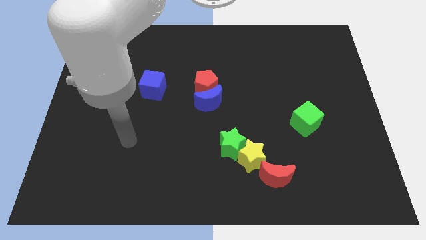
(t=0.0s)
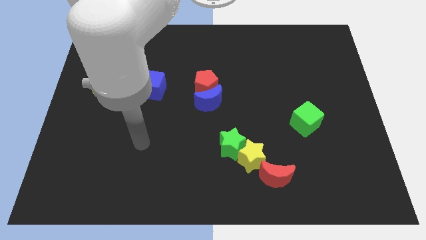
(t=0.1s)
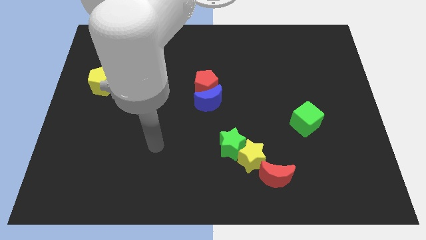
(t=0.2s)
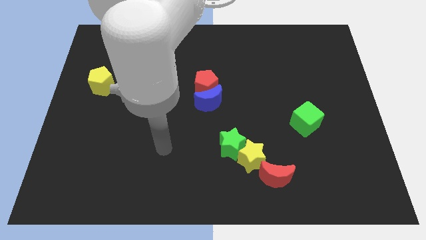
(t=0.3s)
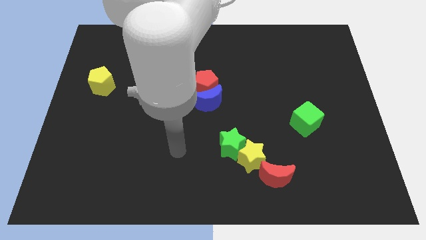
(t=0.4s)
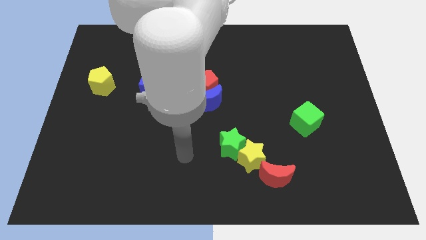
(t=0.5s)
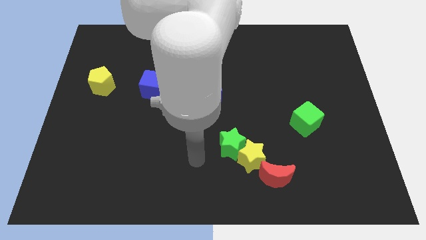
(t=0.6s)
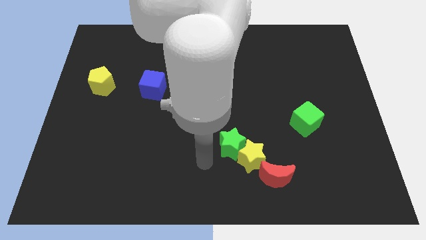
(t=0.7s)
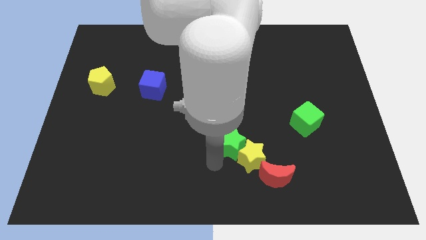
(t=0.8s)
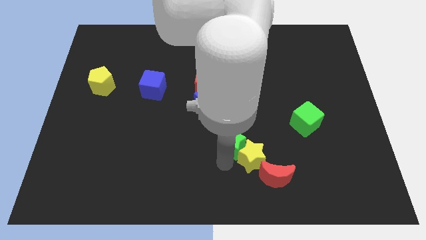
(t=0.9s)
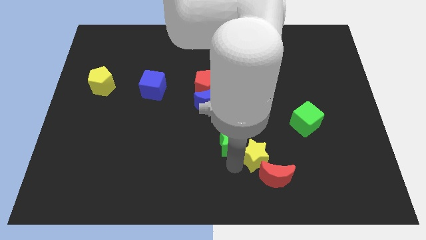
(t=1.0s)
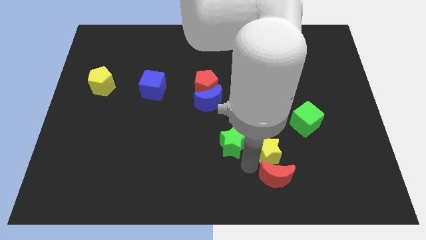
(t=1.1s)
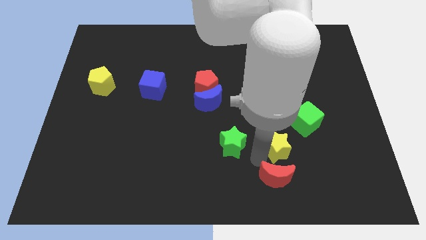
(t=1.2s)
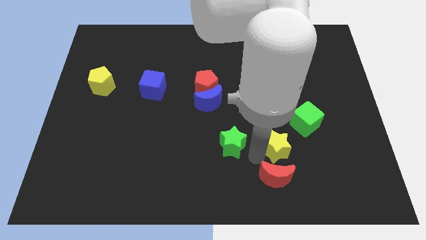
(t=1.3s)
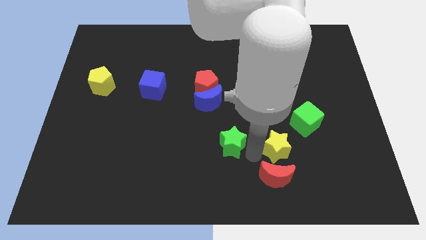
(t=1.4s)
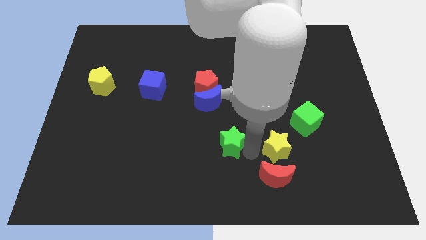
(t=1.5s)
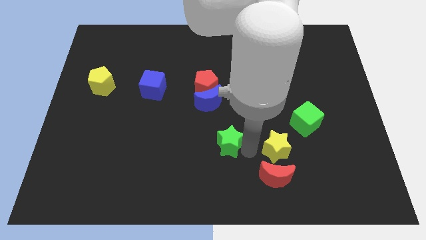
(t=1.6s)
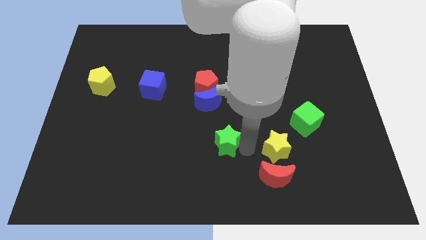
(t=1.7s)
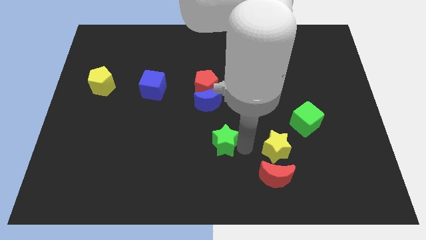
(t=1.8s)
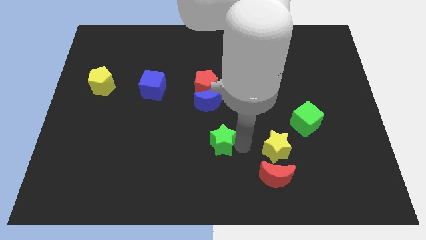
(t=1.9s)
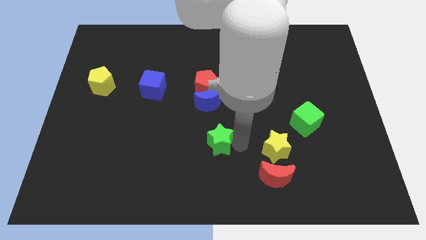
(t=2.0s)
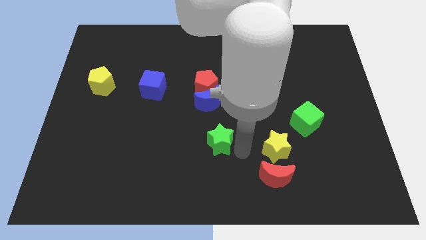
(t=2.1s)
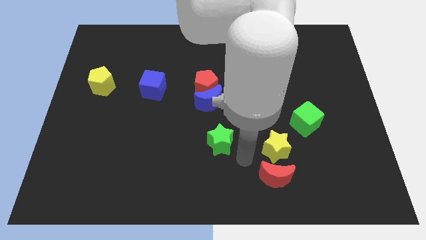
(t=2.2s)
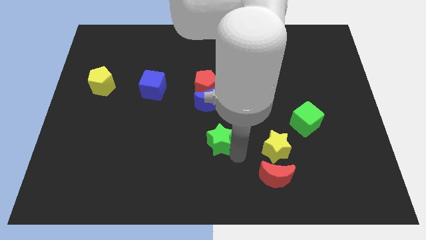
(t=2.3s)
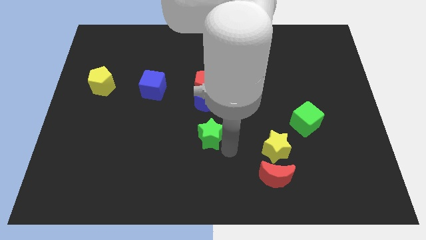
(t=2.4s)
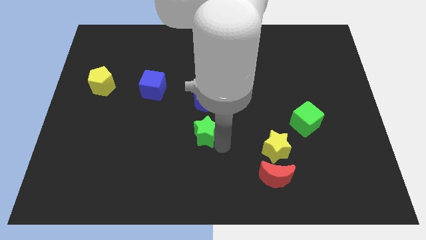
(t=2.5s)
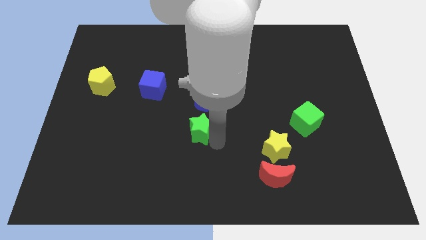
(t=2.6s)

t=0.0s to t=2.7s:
slightly slide the green star upwards and to the left diagonally

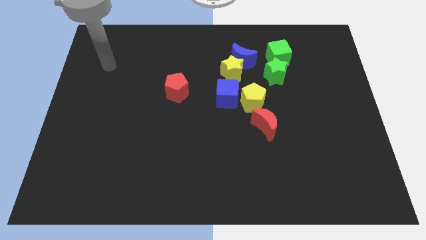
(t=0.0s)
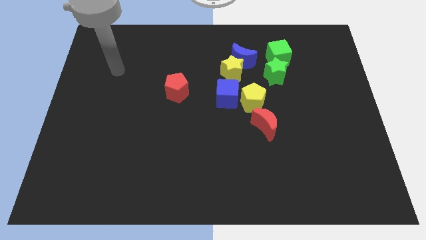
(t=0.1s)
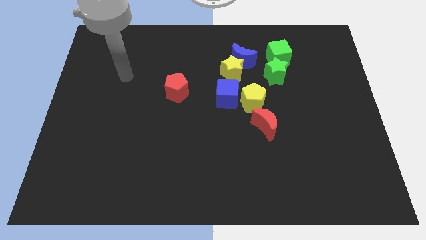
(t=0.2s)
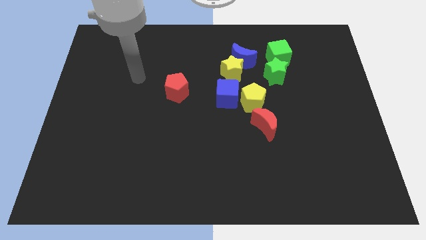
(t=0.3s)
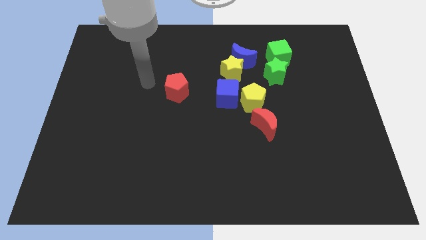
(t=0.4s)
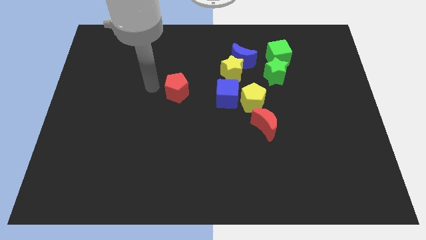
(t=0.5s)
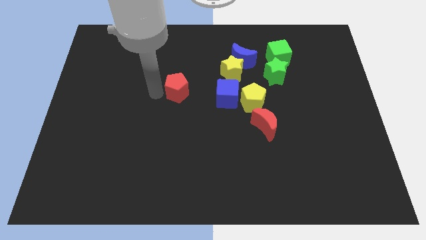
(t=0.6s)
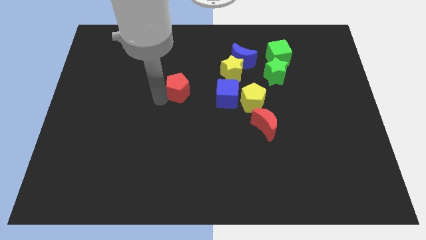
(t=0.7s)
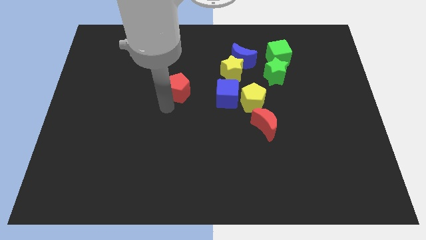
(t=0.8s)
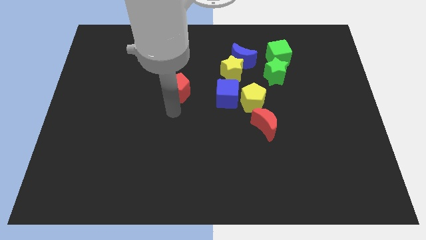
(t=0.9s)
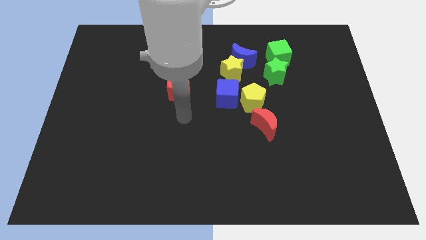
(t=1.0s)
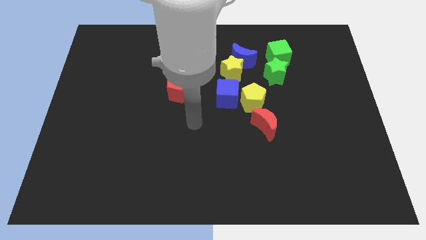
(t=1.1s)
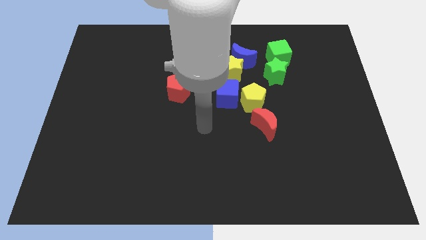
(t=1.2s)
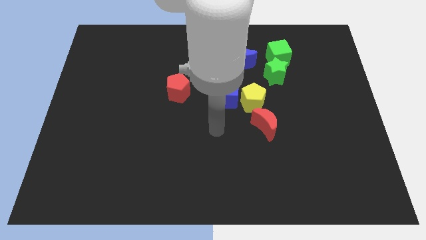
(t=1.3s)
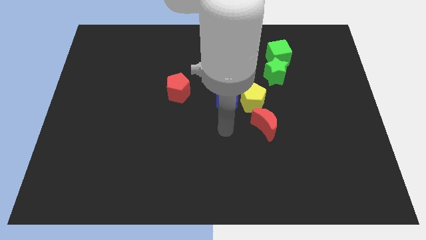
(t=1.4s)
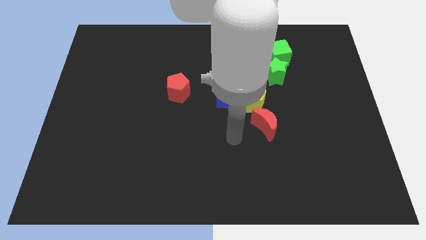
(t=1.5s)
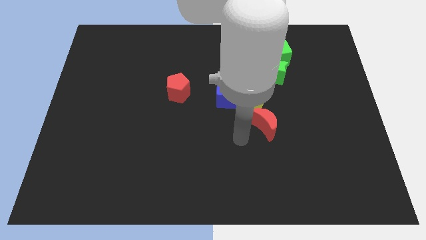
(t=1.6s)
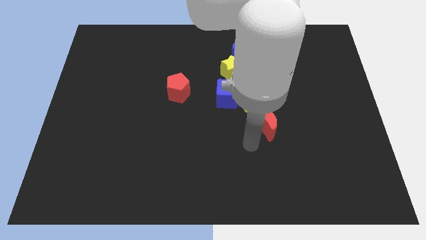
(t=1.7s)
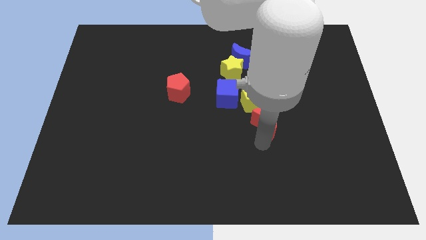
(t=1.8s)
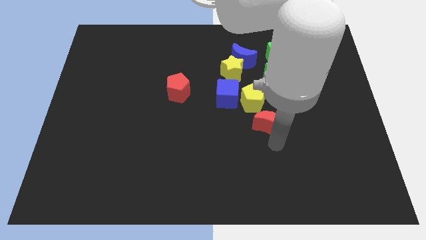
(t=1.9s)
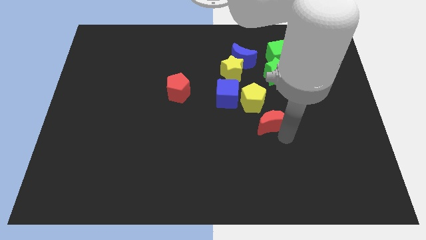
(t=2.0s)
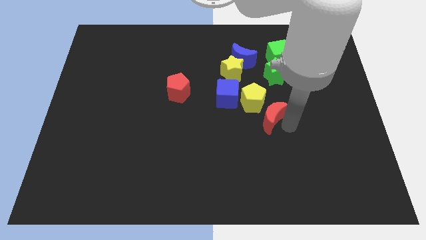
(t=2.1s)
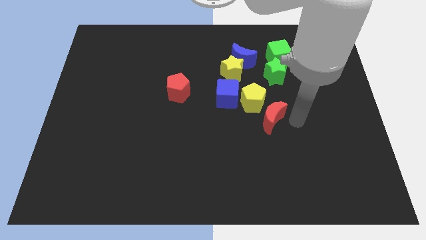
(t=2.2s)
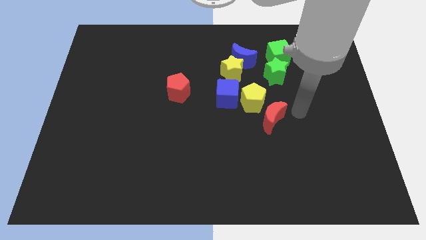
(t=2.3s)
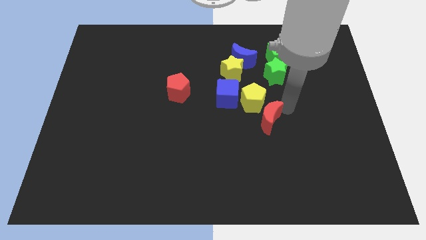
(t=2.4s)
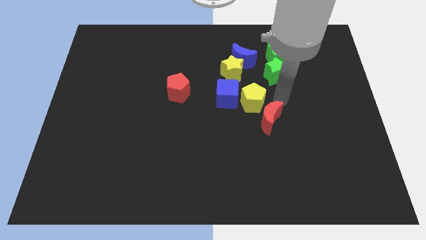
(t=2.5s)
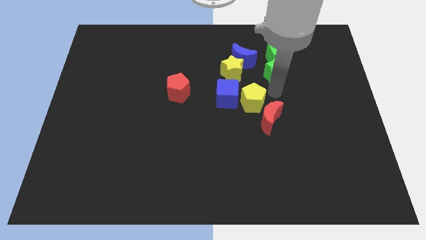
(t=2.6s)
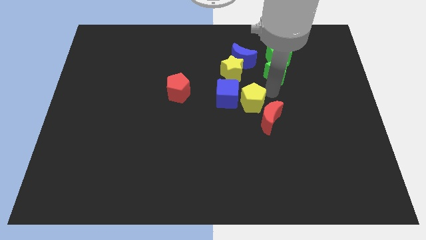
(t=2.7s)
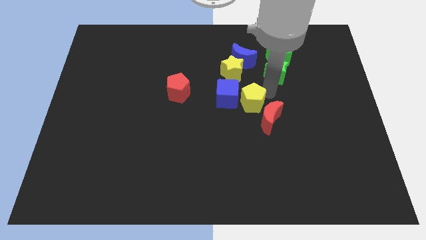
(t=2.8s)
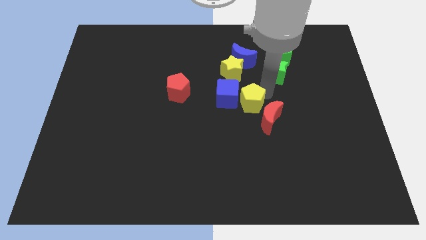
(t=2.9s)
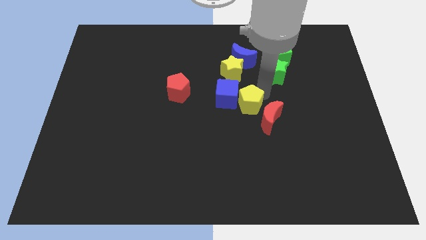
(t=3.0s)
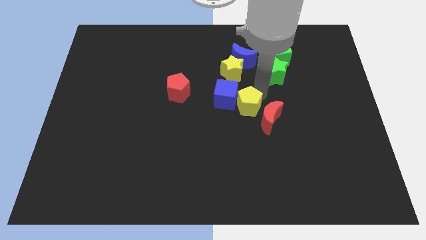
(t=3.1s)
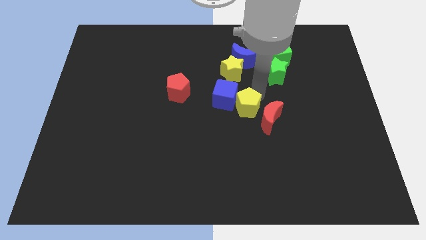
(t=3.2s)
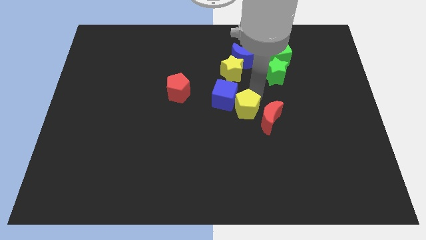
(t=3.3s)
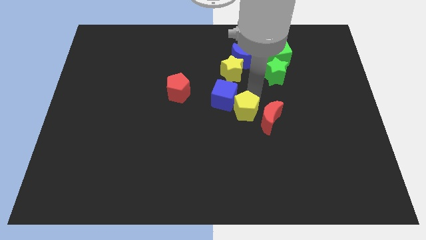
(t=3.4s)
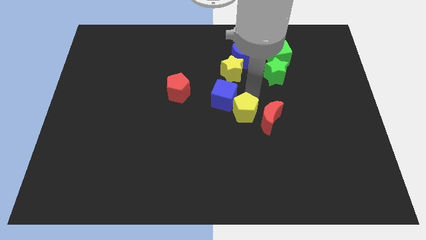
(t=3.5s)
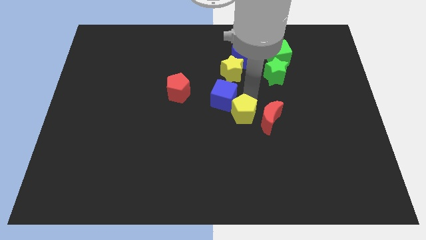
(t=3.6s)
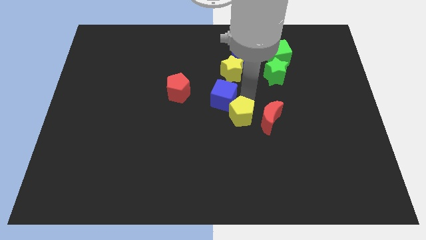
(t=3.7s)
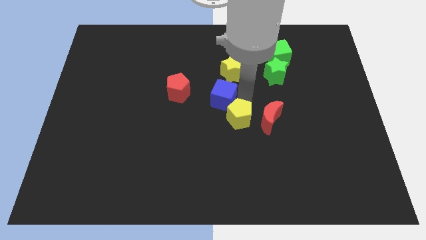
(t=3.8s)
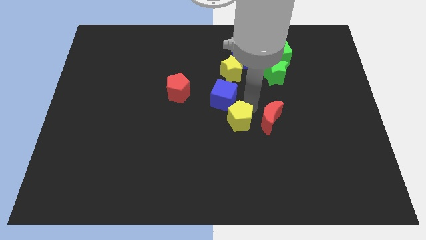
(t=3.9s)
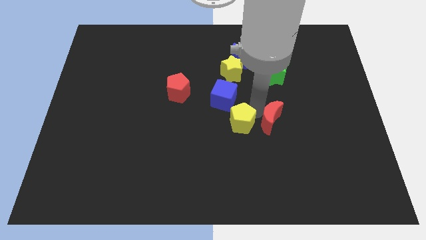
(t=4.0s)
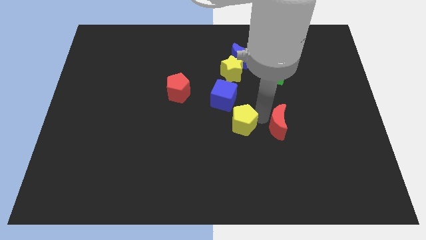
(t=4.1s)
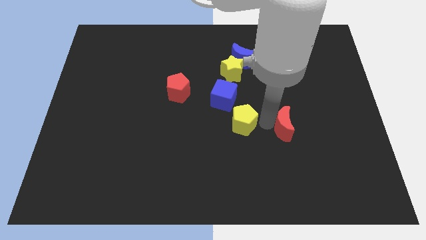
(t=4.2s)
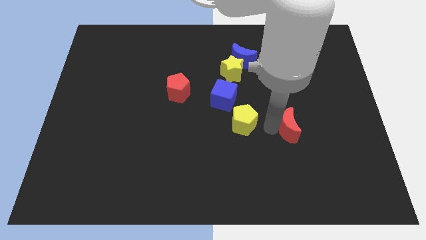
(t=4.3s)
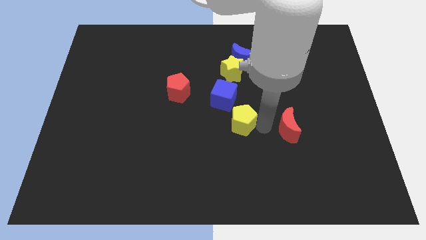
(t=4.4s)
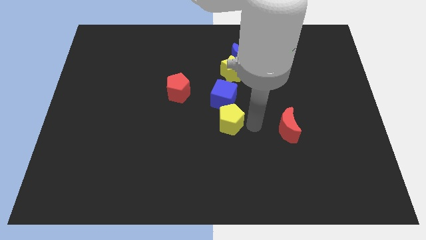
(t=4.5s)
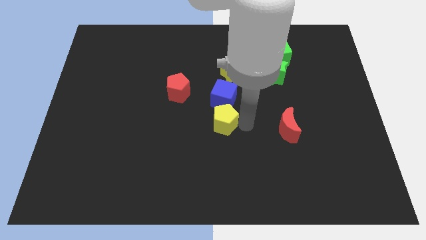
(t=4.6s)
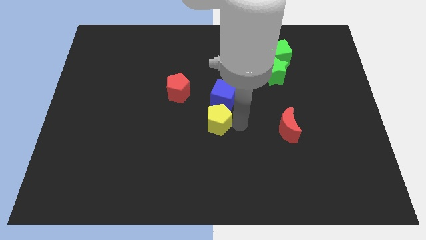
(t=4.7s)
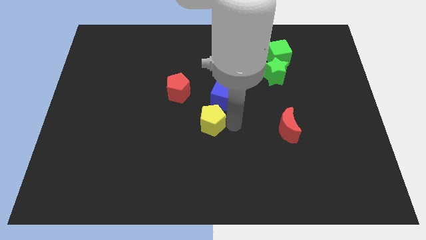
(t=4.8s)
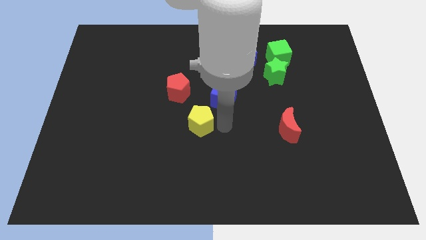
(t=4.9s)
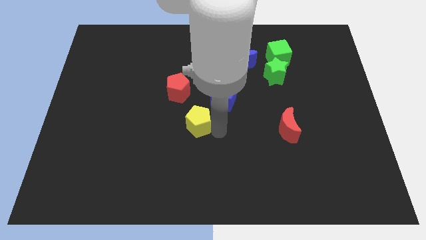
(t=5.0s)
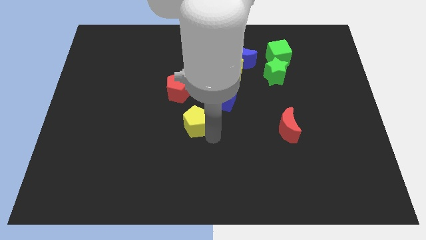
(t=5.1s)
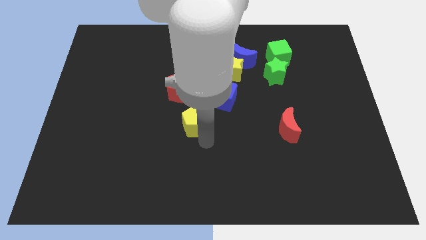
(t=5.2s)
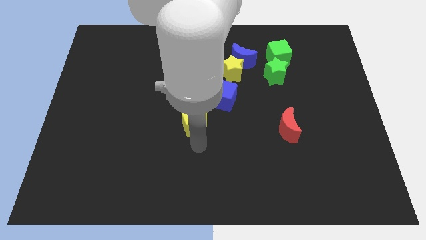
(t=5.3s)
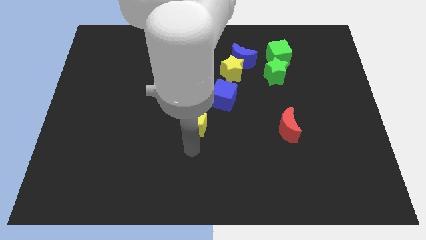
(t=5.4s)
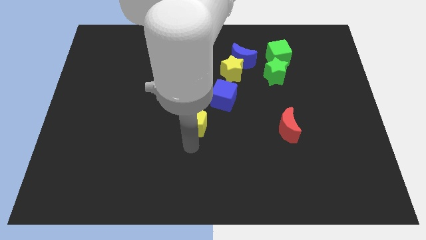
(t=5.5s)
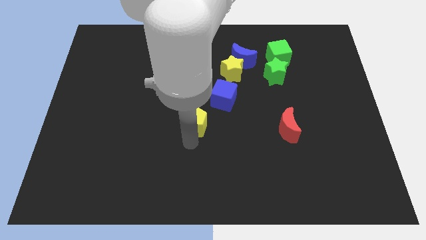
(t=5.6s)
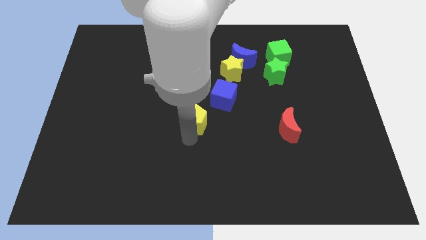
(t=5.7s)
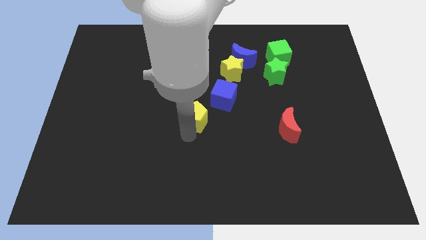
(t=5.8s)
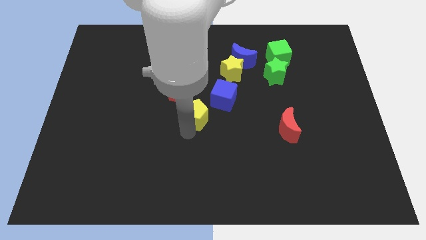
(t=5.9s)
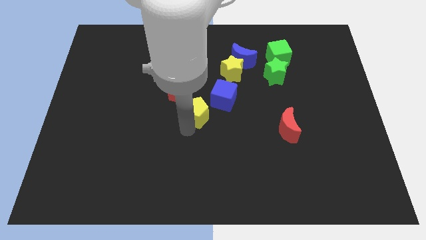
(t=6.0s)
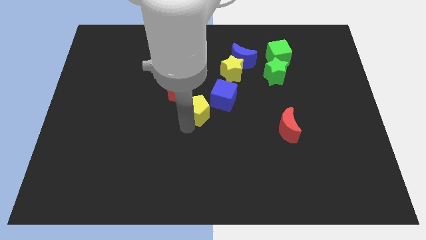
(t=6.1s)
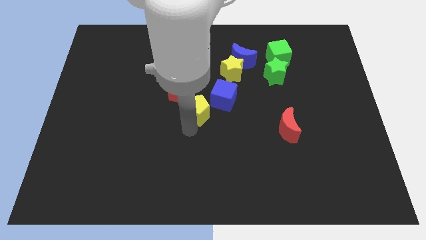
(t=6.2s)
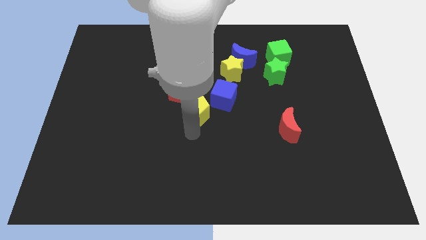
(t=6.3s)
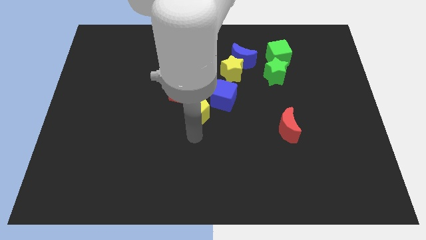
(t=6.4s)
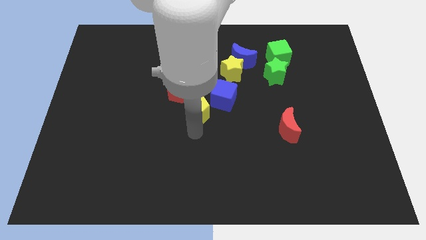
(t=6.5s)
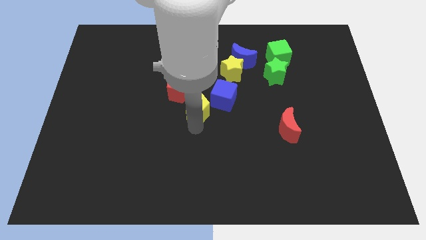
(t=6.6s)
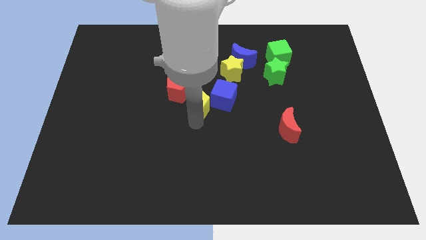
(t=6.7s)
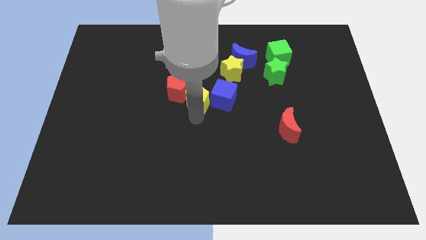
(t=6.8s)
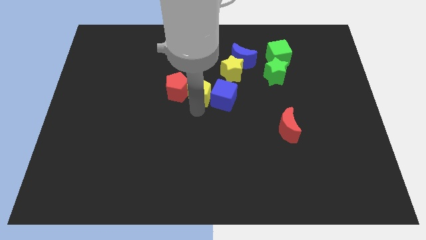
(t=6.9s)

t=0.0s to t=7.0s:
slide the yellow pentagon a little up and then left
